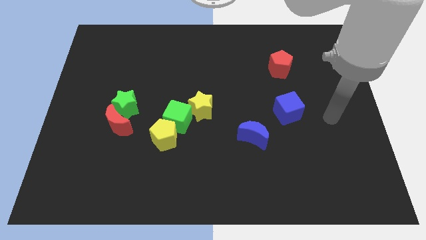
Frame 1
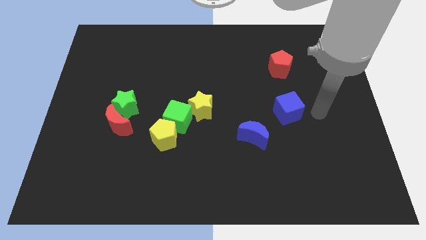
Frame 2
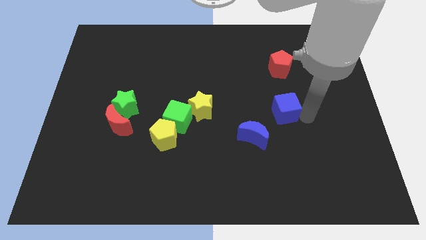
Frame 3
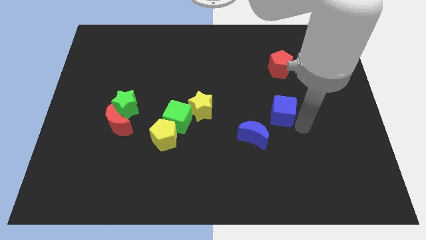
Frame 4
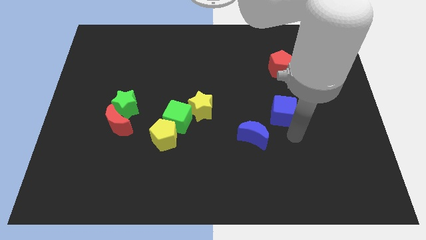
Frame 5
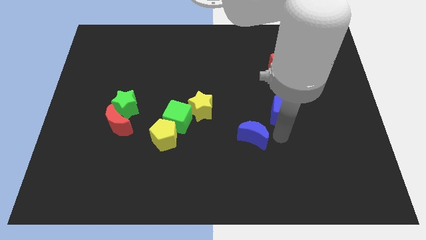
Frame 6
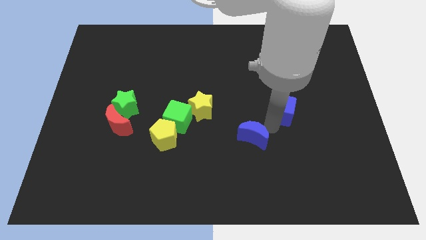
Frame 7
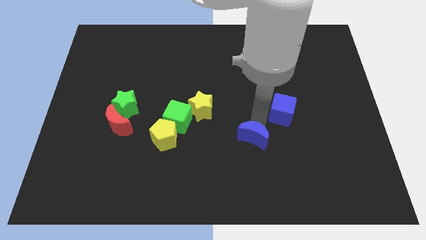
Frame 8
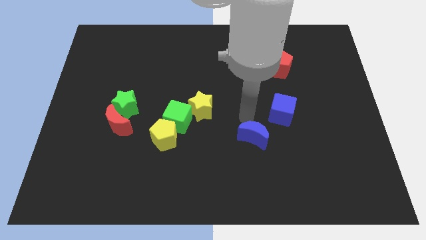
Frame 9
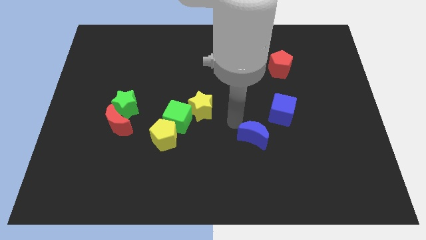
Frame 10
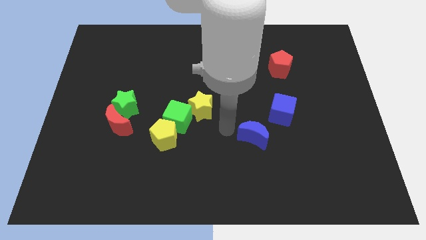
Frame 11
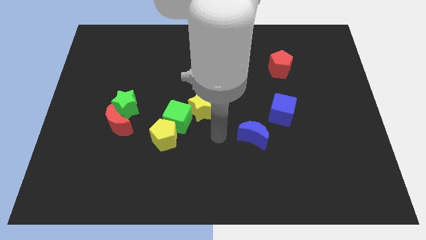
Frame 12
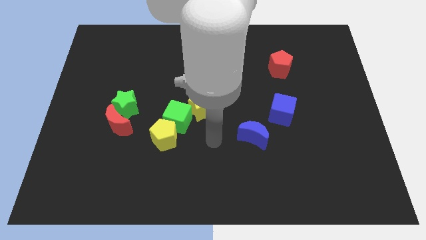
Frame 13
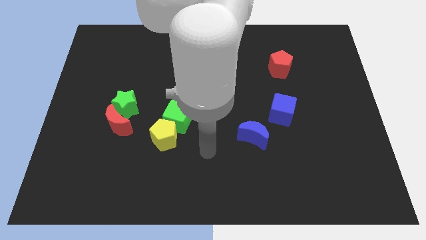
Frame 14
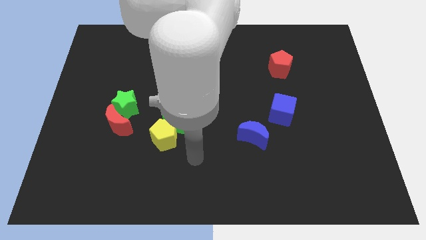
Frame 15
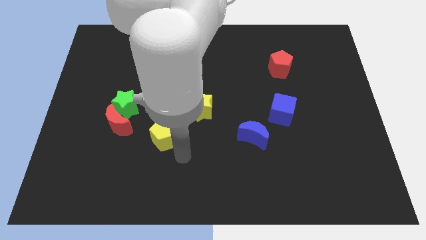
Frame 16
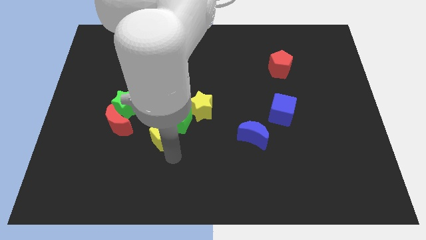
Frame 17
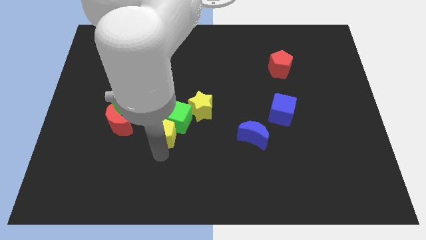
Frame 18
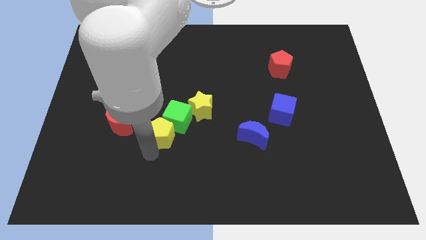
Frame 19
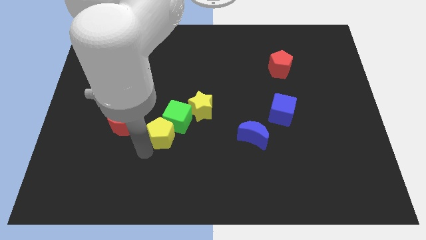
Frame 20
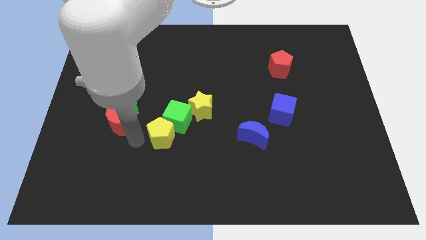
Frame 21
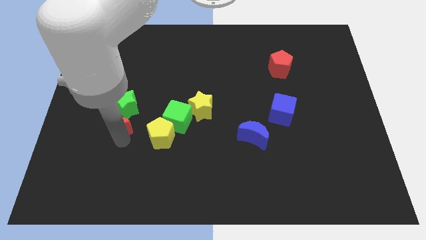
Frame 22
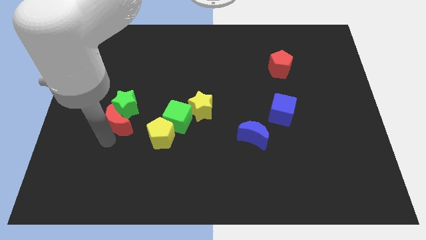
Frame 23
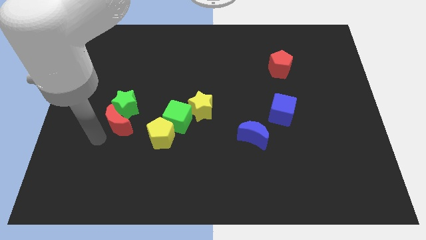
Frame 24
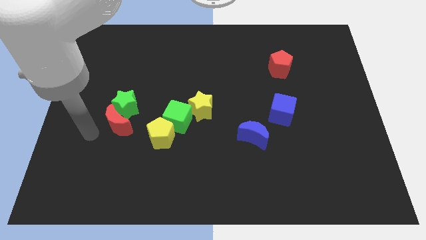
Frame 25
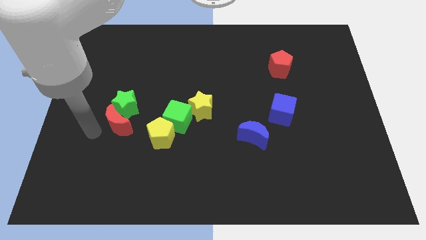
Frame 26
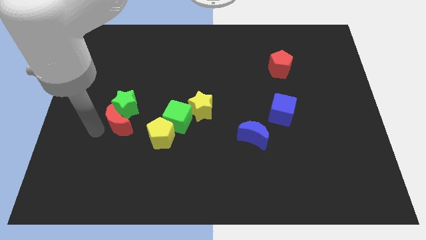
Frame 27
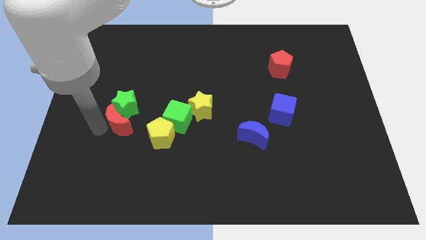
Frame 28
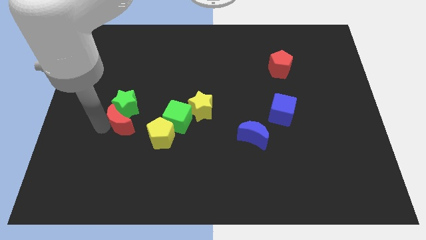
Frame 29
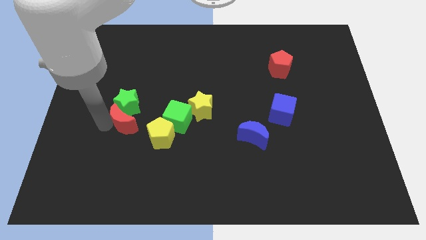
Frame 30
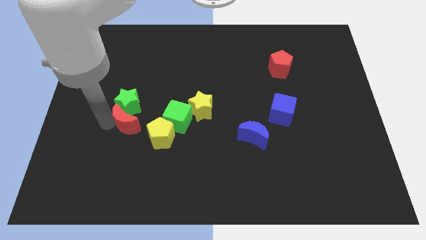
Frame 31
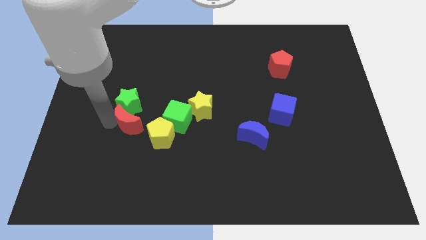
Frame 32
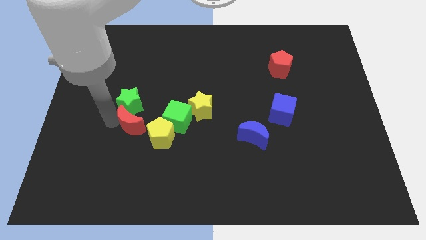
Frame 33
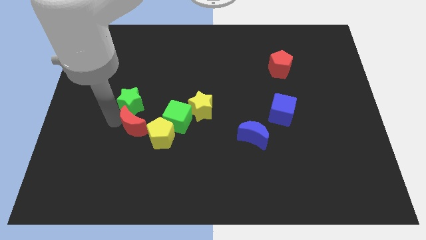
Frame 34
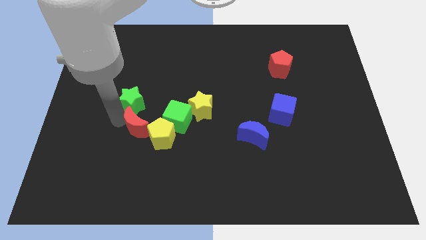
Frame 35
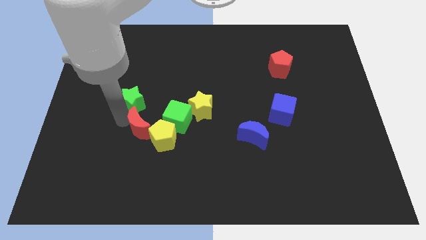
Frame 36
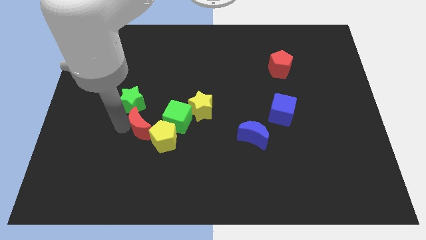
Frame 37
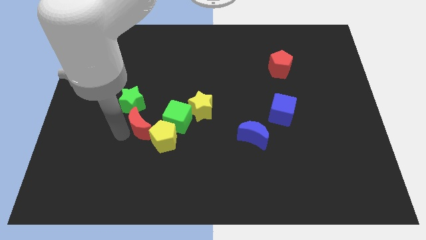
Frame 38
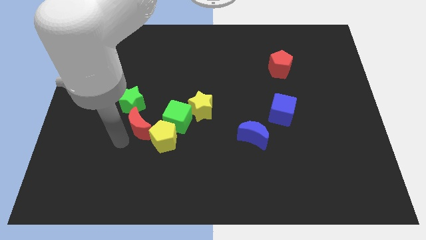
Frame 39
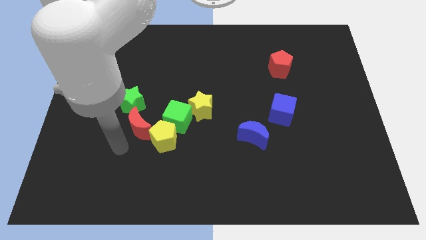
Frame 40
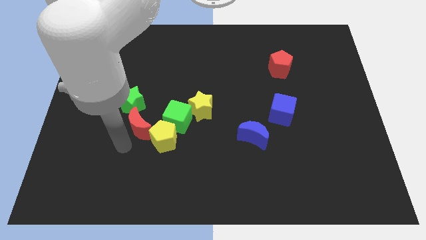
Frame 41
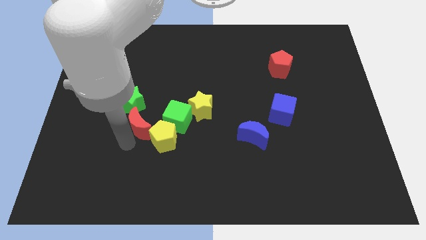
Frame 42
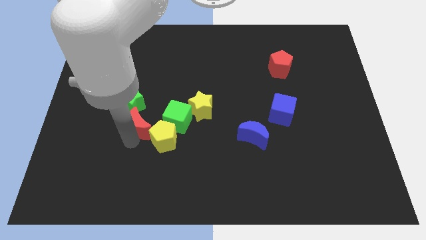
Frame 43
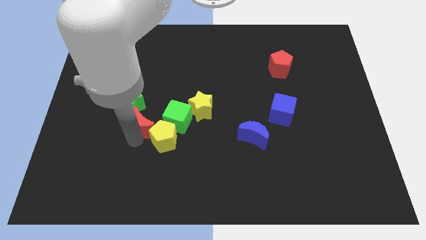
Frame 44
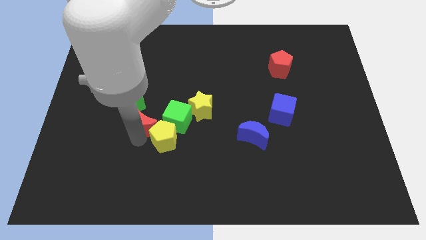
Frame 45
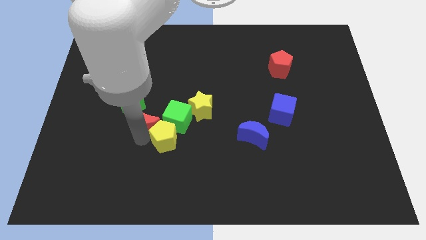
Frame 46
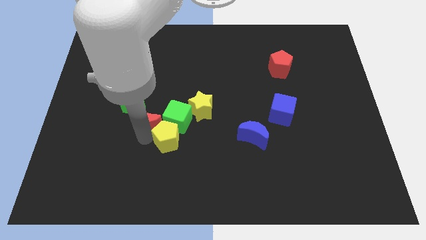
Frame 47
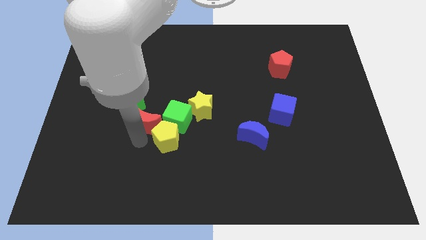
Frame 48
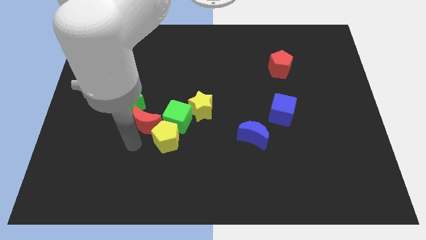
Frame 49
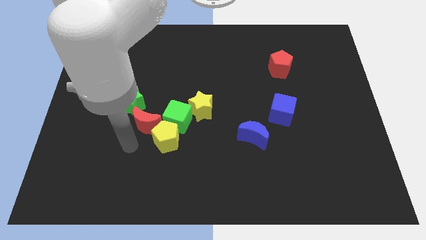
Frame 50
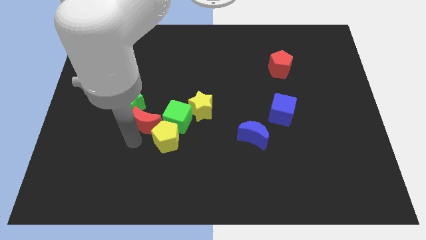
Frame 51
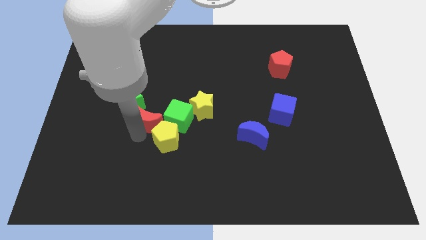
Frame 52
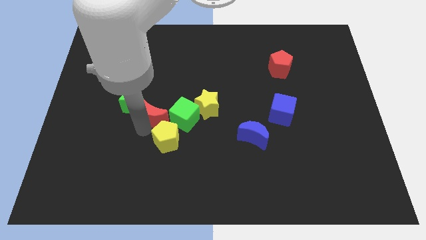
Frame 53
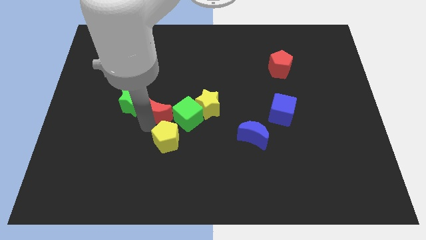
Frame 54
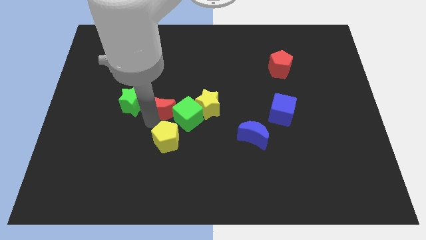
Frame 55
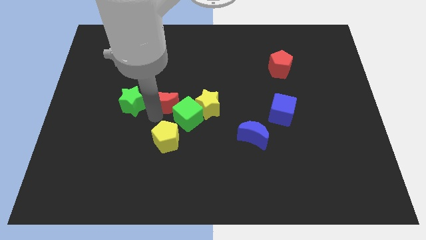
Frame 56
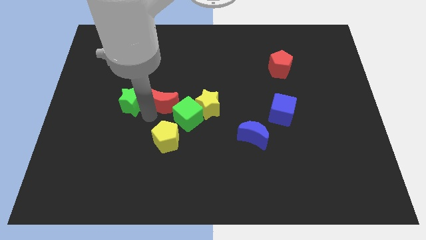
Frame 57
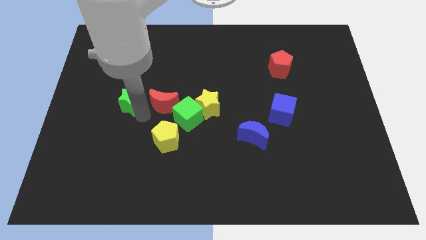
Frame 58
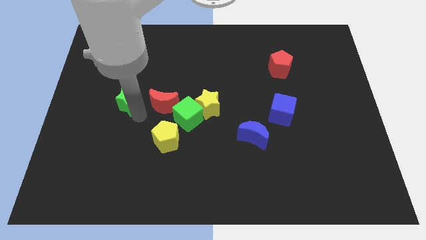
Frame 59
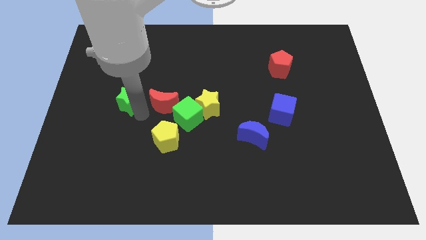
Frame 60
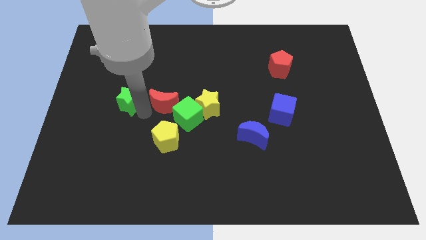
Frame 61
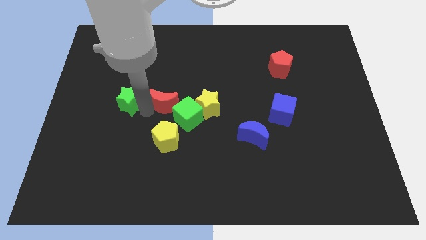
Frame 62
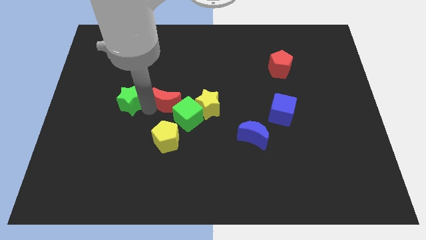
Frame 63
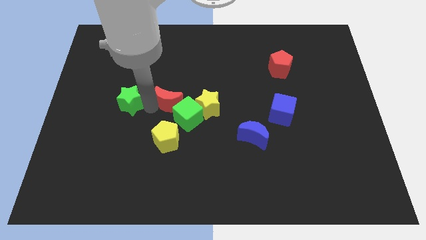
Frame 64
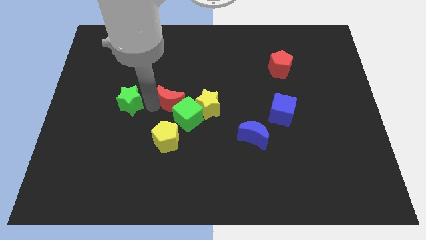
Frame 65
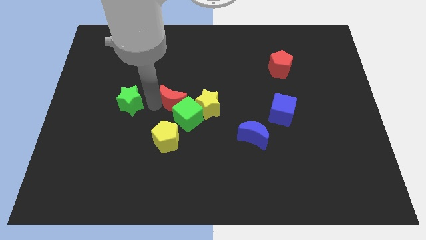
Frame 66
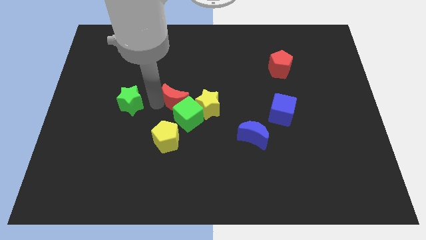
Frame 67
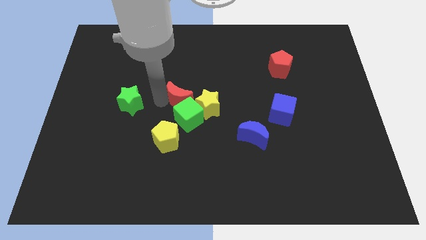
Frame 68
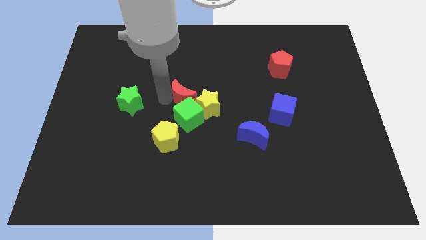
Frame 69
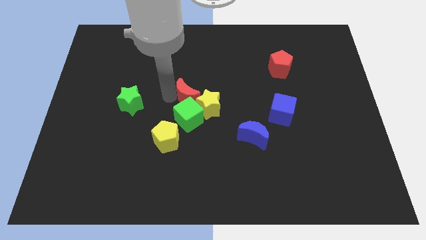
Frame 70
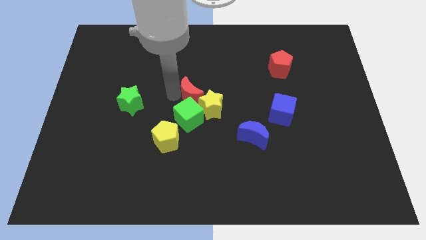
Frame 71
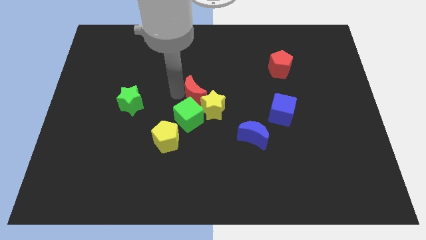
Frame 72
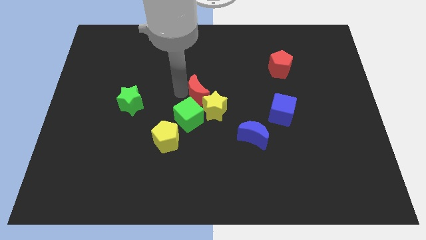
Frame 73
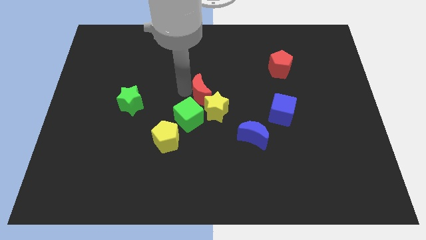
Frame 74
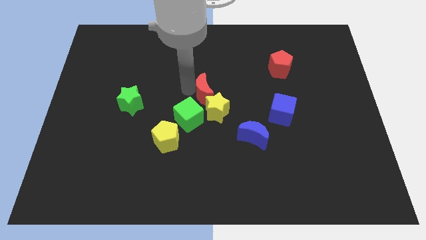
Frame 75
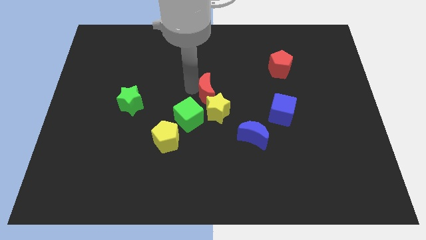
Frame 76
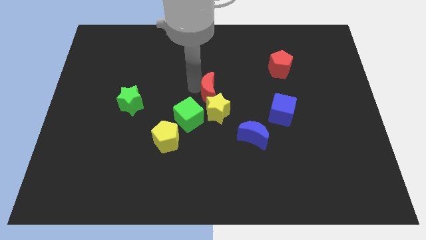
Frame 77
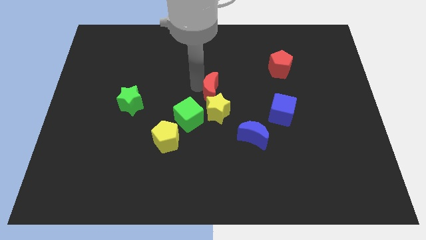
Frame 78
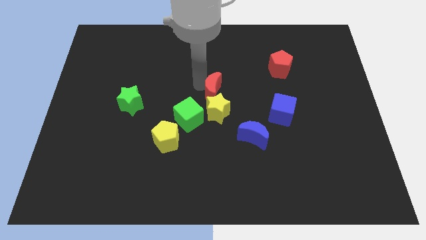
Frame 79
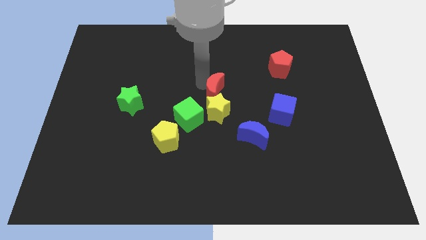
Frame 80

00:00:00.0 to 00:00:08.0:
move the red moon to the top right of the yellow star
